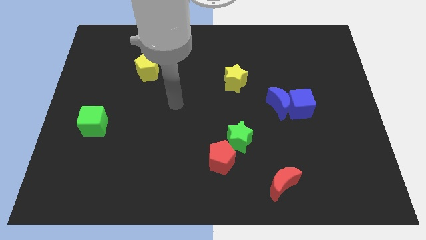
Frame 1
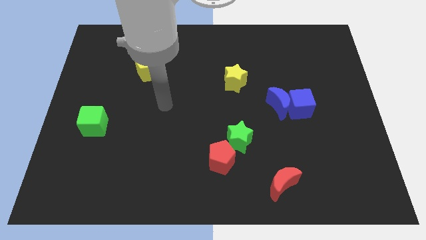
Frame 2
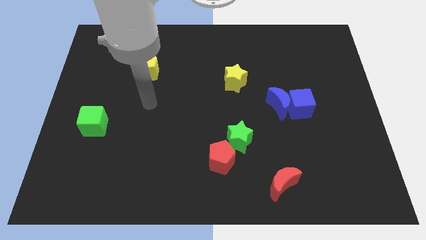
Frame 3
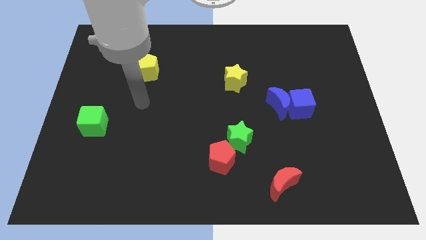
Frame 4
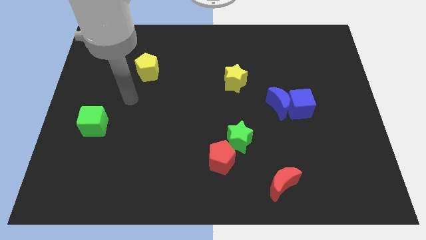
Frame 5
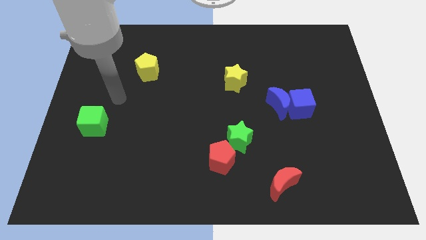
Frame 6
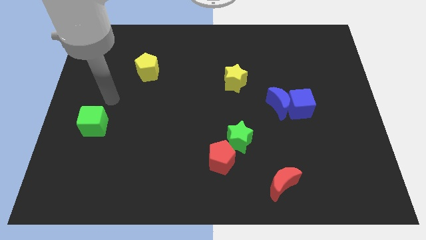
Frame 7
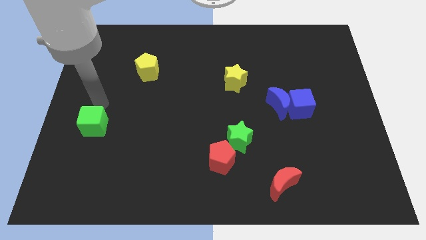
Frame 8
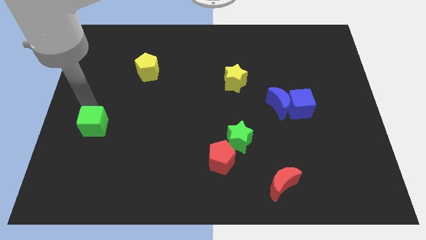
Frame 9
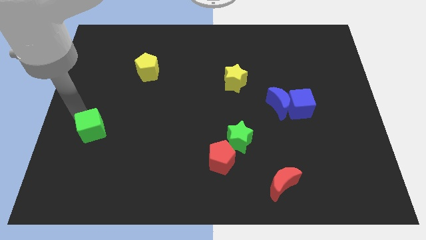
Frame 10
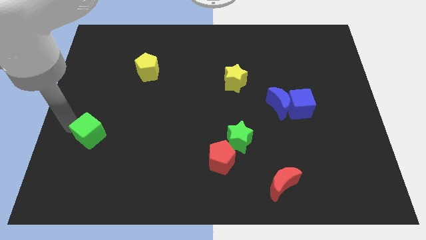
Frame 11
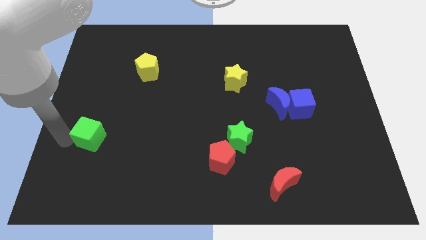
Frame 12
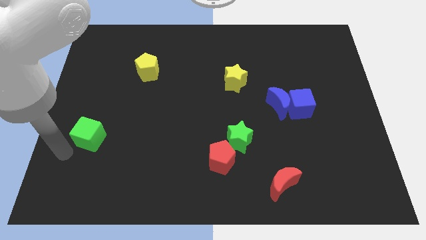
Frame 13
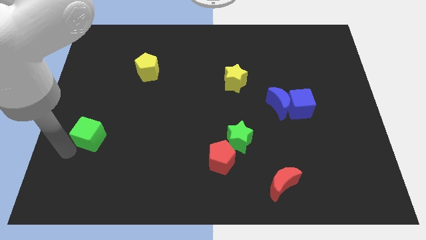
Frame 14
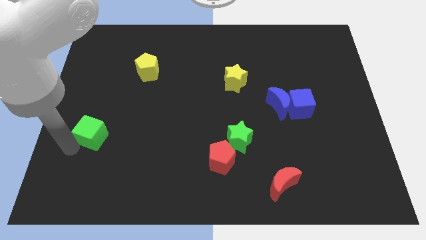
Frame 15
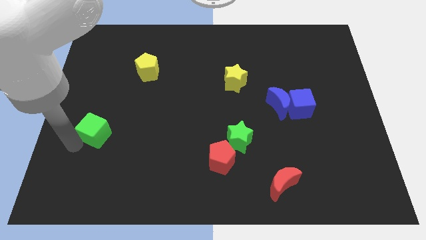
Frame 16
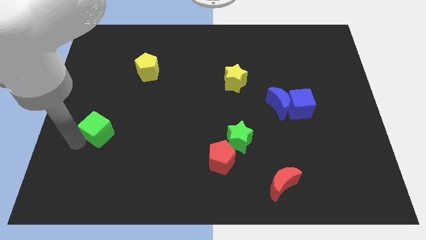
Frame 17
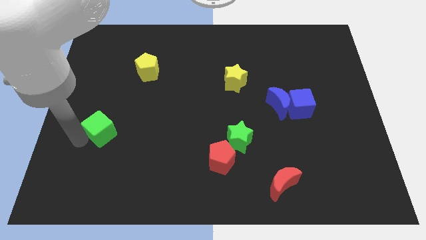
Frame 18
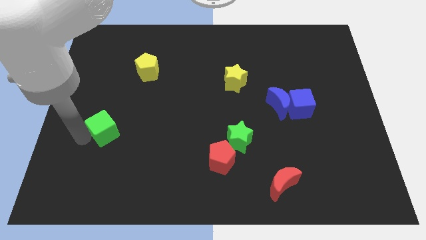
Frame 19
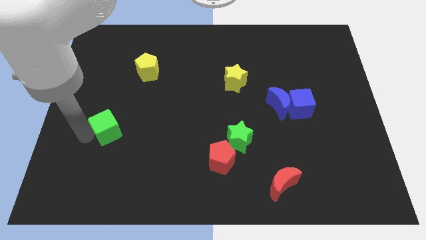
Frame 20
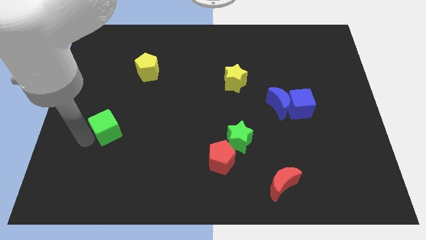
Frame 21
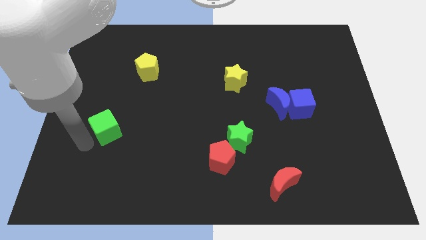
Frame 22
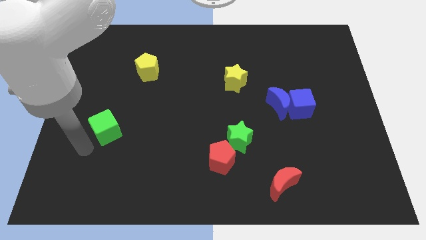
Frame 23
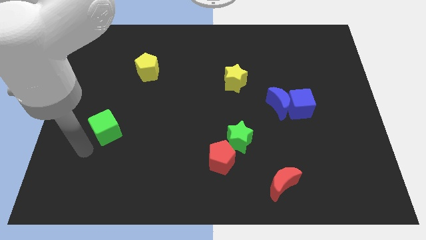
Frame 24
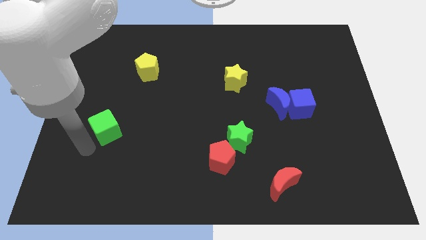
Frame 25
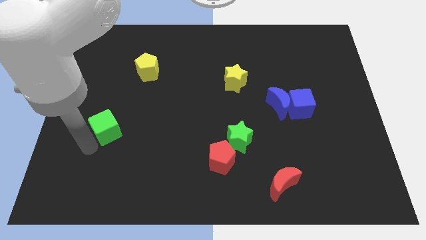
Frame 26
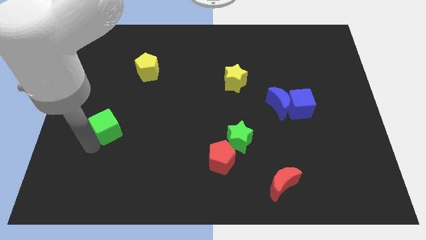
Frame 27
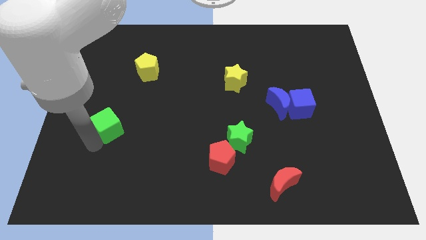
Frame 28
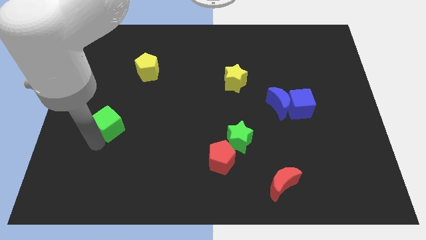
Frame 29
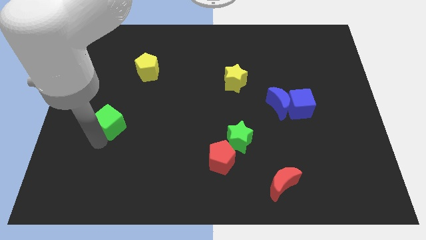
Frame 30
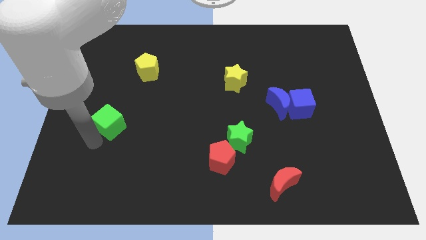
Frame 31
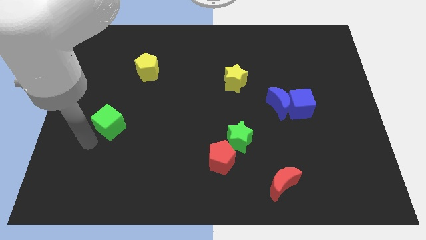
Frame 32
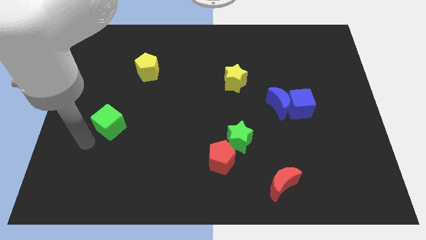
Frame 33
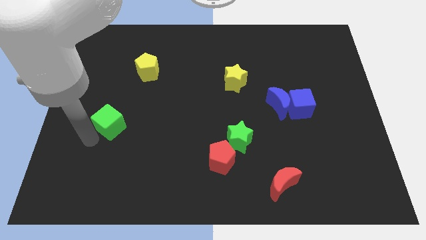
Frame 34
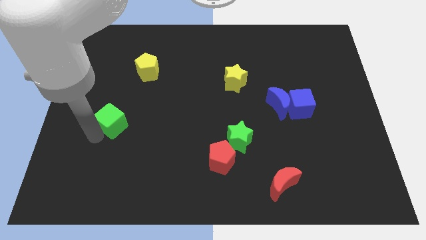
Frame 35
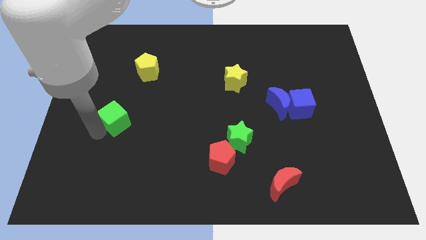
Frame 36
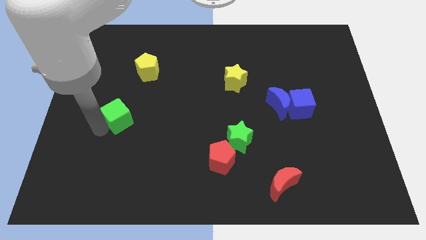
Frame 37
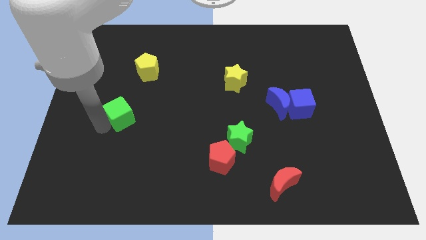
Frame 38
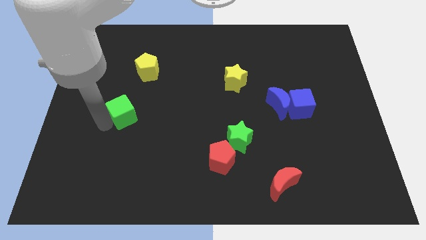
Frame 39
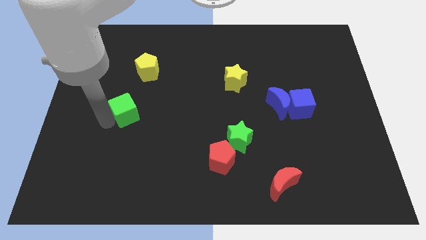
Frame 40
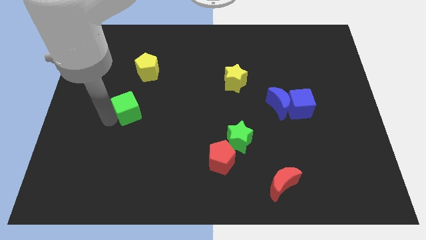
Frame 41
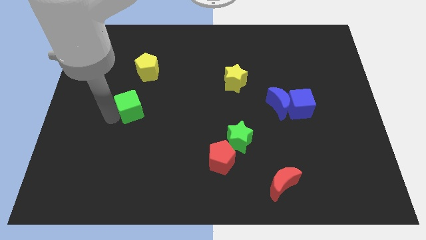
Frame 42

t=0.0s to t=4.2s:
push the green cube a little bit right

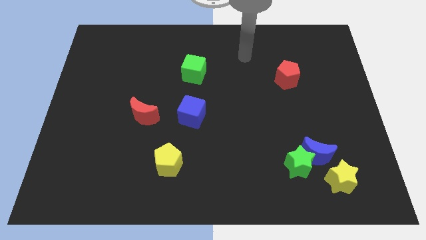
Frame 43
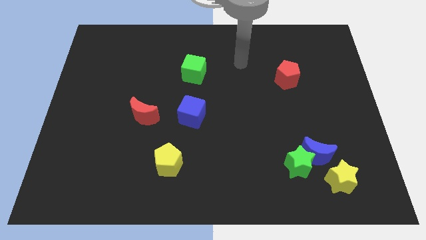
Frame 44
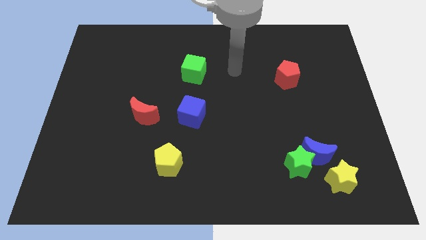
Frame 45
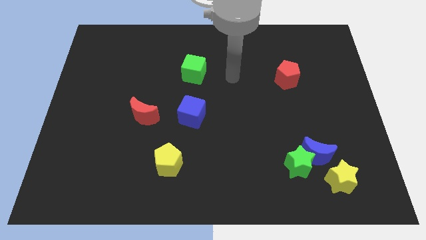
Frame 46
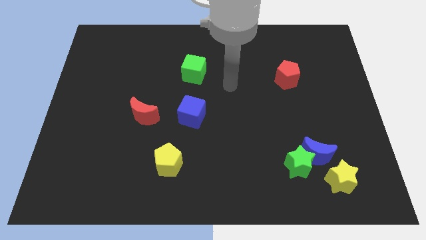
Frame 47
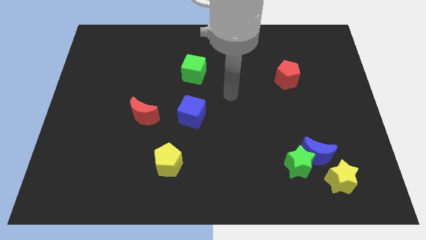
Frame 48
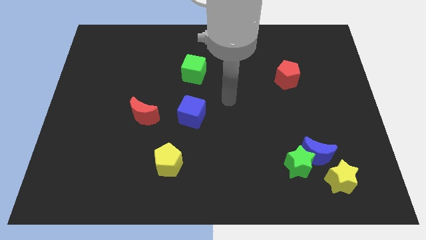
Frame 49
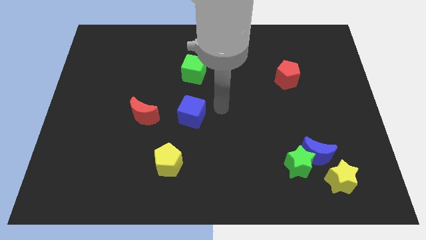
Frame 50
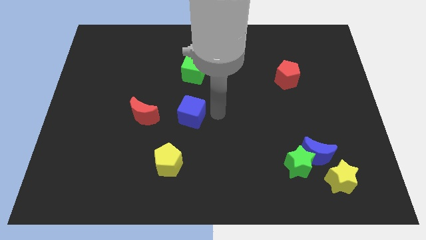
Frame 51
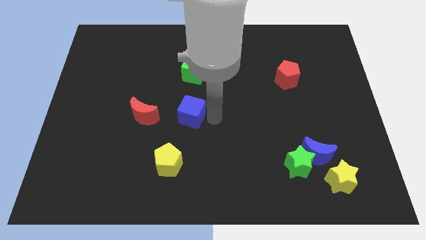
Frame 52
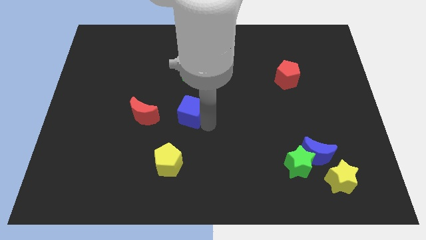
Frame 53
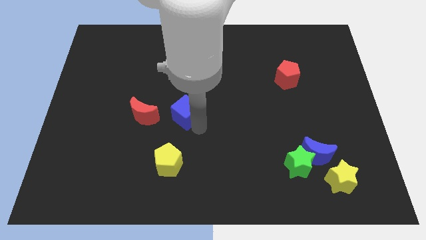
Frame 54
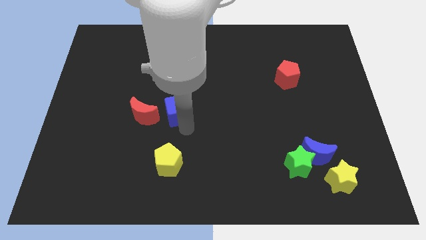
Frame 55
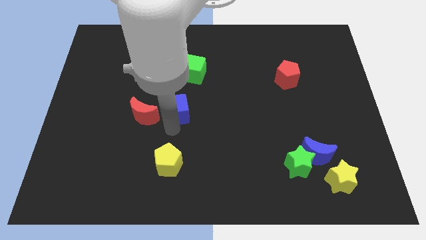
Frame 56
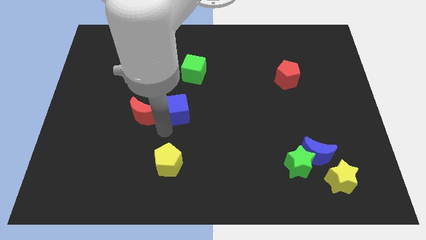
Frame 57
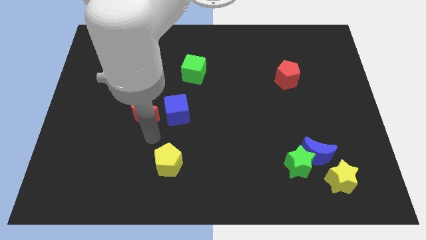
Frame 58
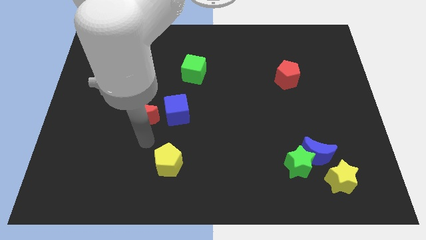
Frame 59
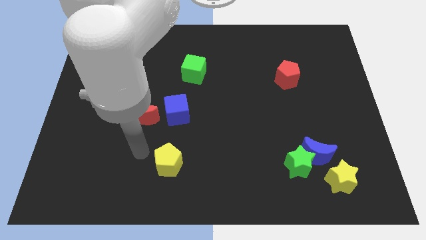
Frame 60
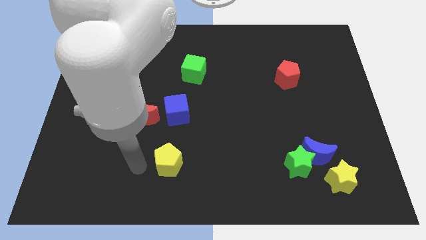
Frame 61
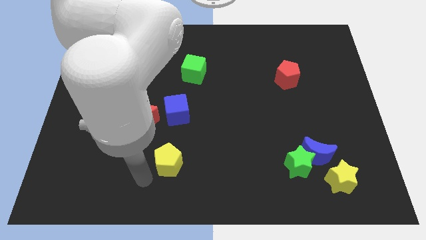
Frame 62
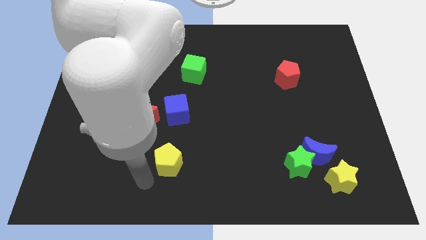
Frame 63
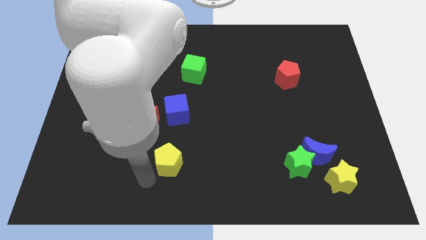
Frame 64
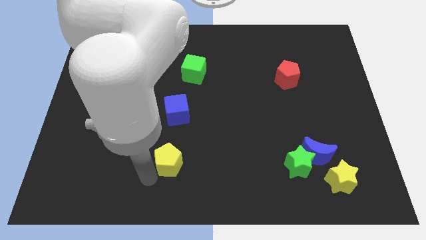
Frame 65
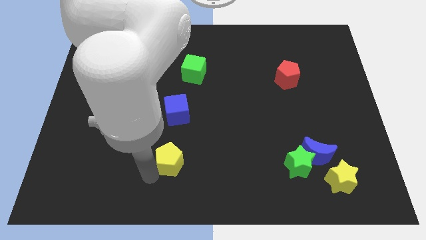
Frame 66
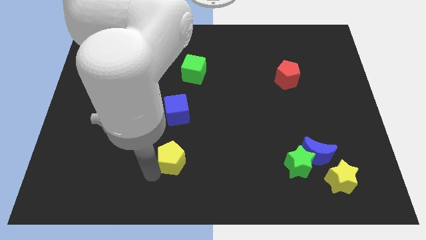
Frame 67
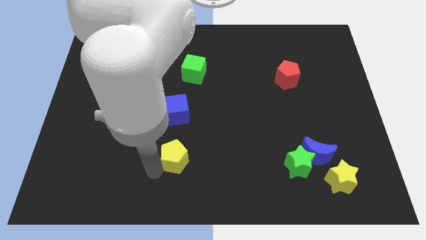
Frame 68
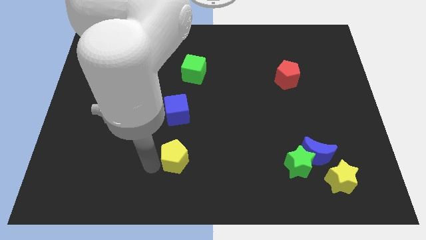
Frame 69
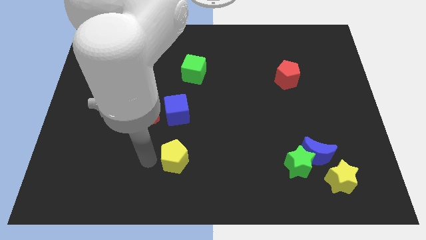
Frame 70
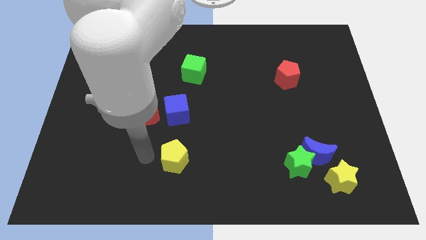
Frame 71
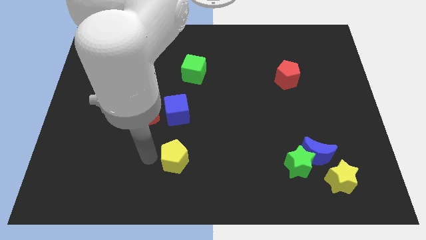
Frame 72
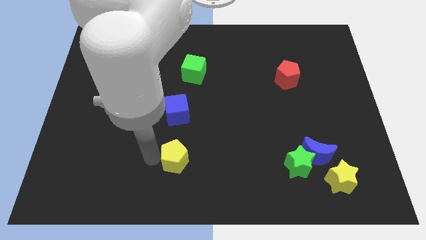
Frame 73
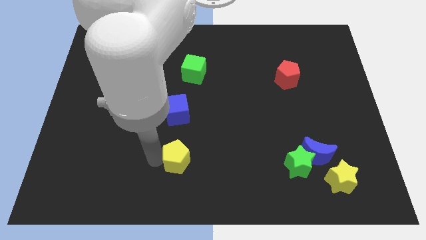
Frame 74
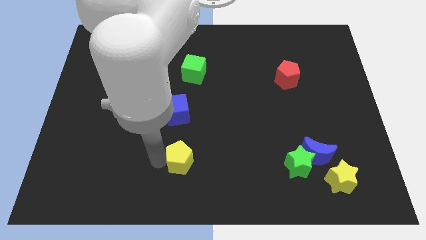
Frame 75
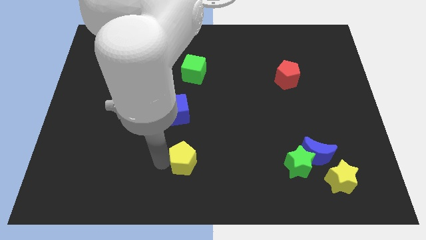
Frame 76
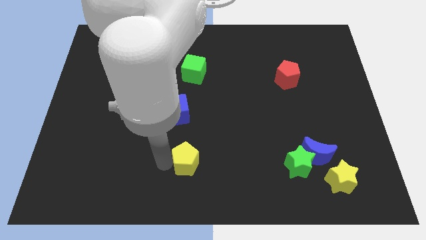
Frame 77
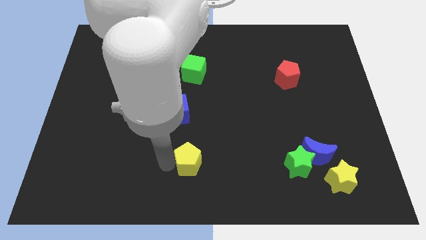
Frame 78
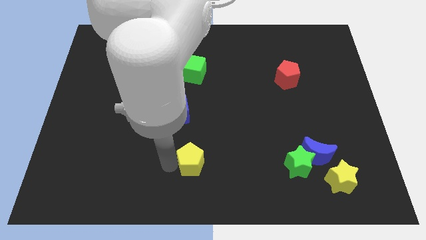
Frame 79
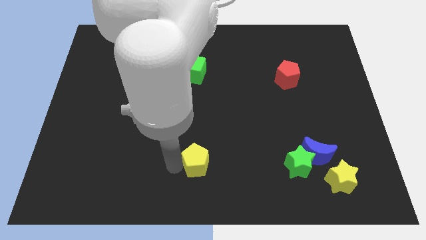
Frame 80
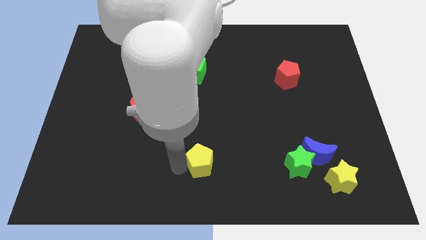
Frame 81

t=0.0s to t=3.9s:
slightly move the yellow pentagon right
